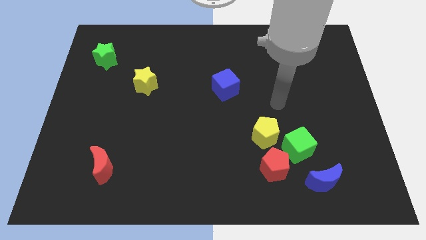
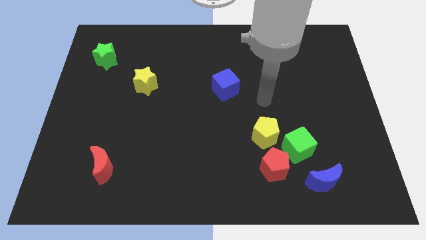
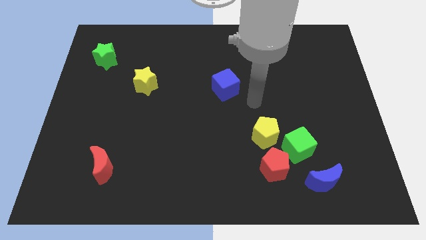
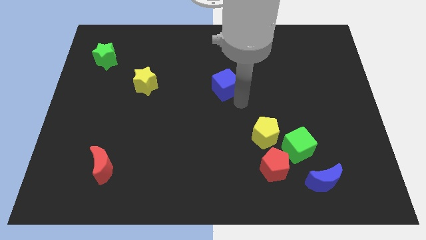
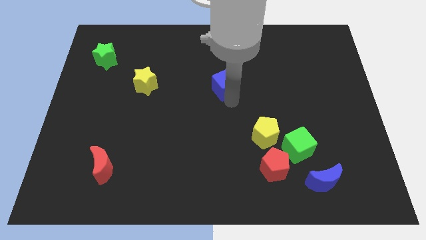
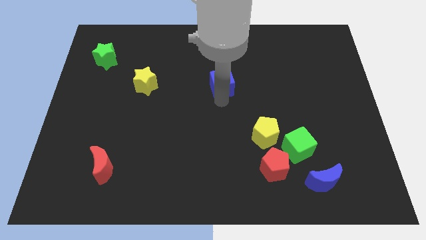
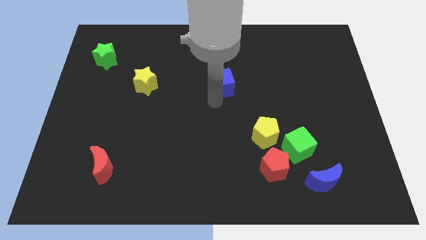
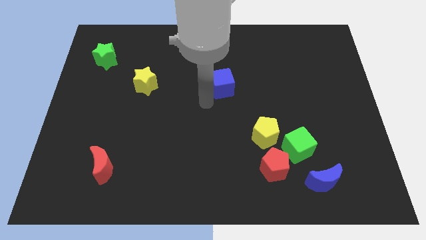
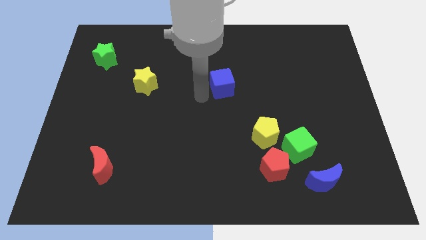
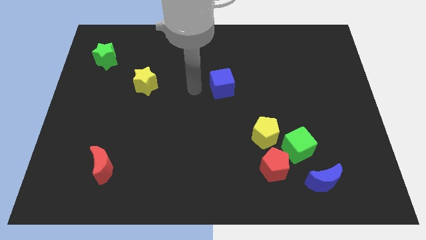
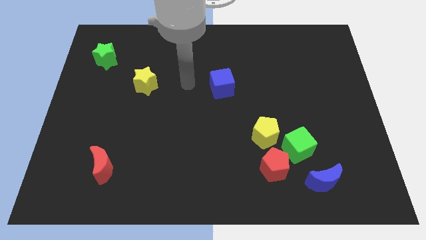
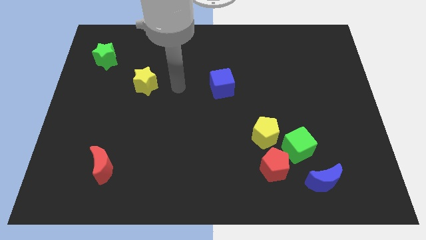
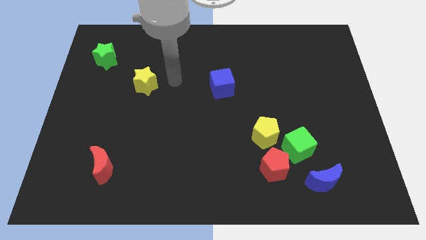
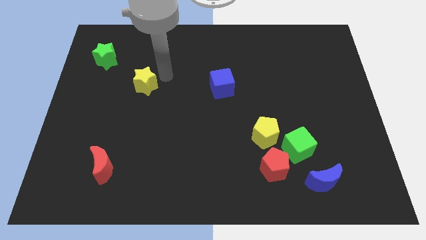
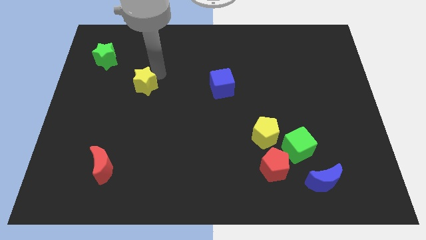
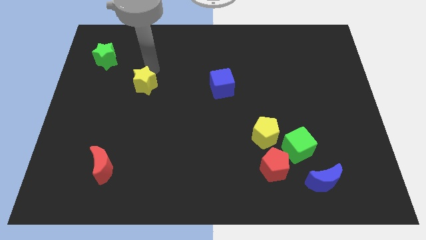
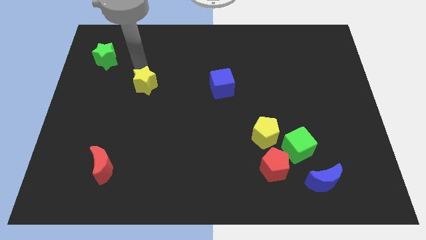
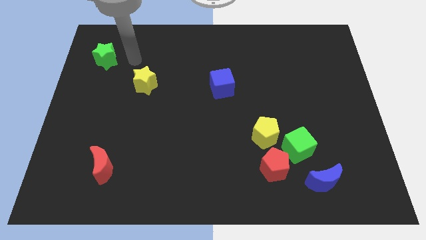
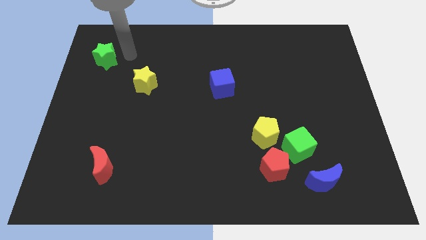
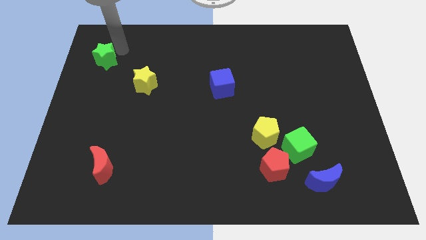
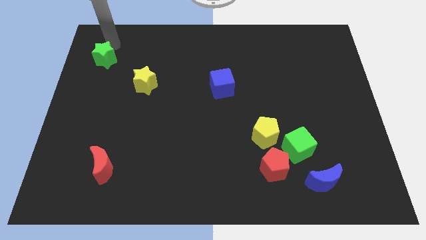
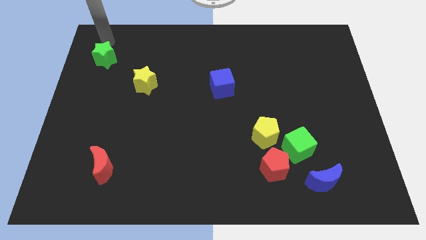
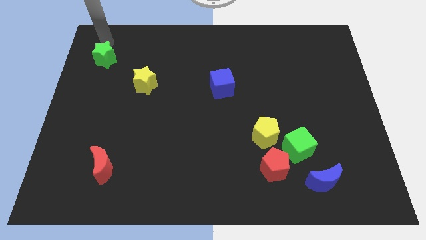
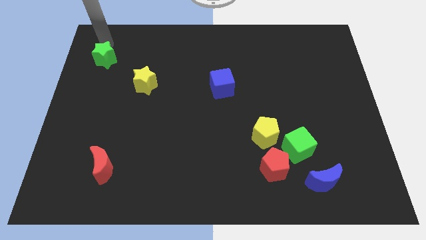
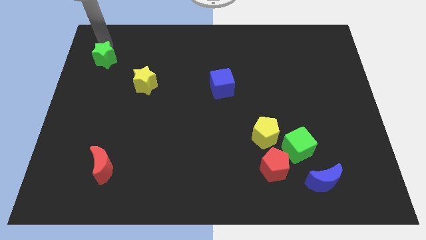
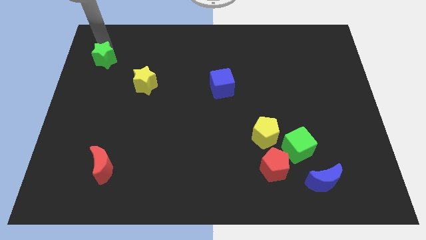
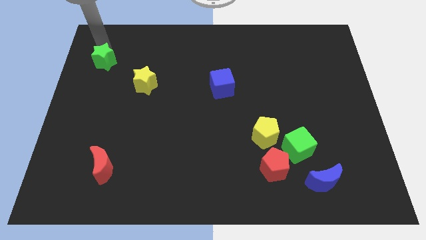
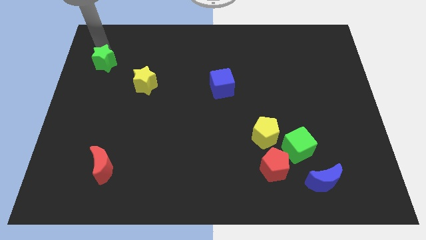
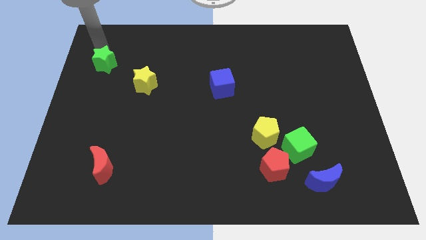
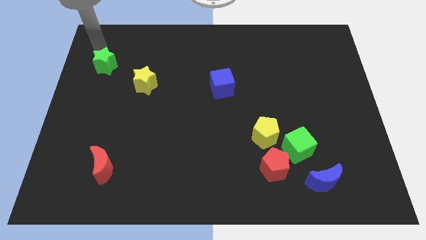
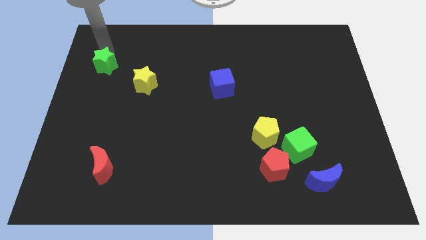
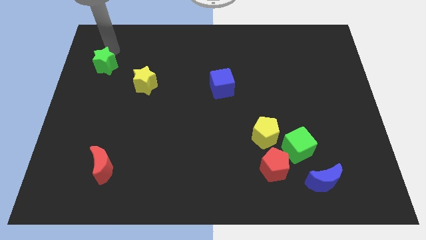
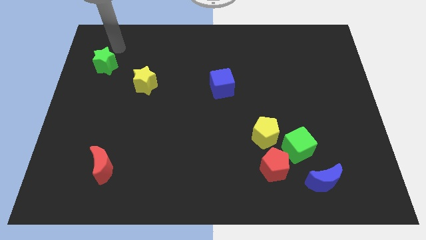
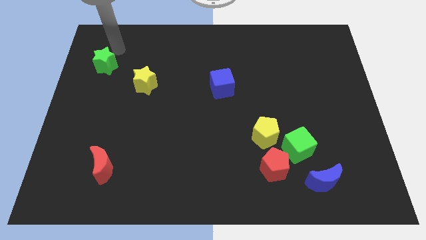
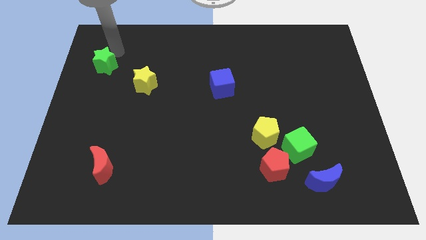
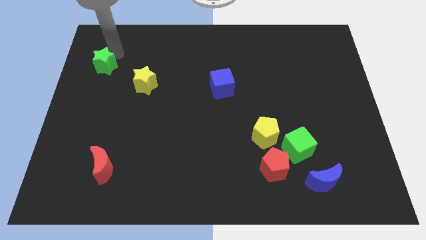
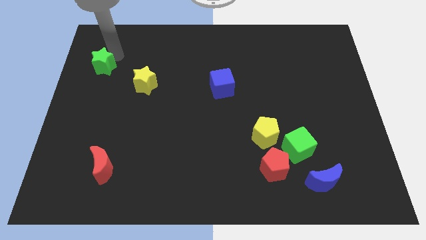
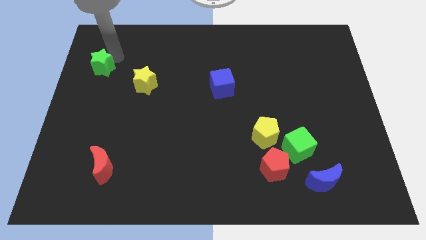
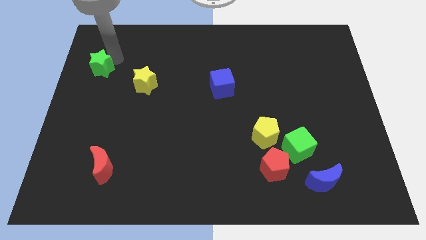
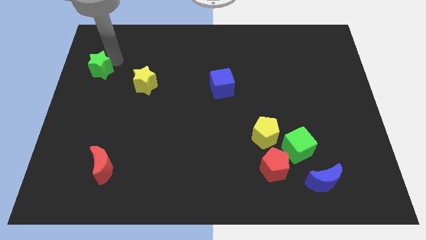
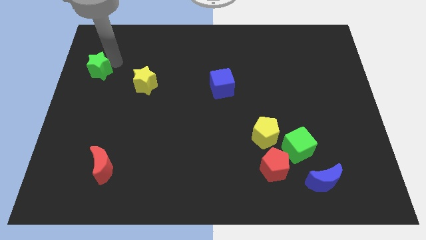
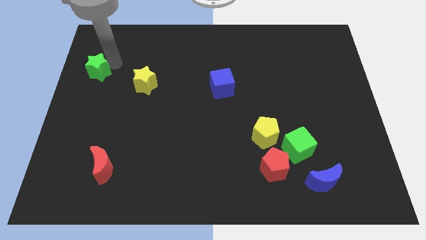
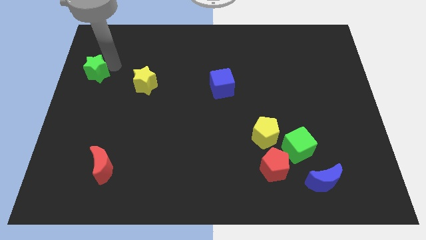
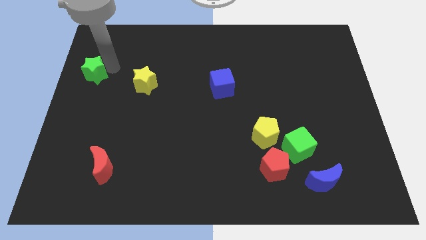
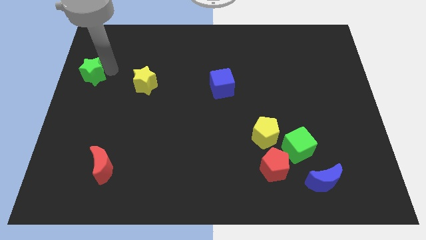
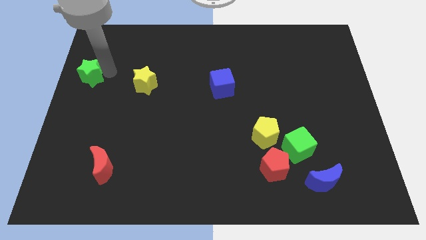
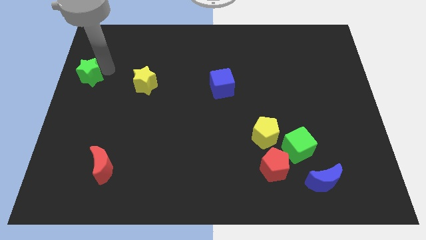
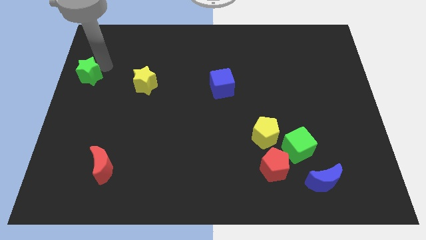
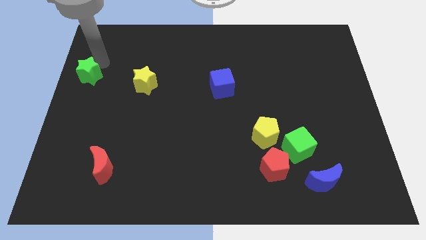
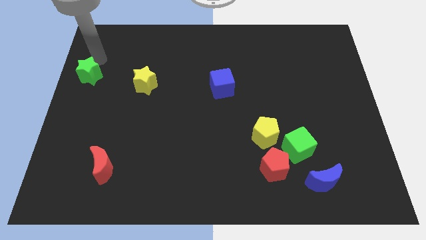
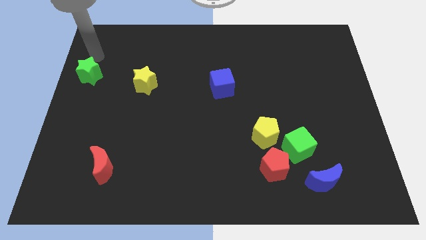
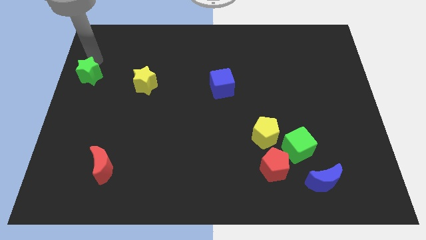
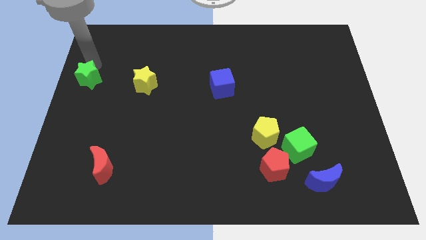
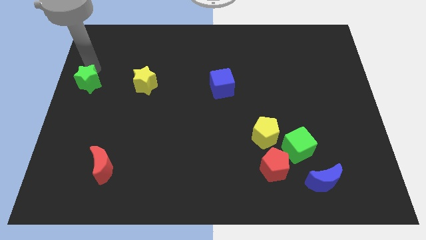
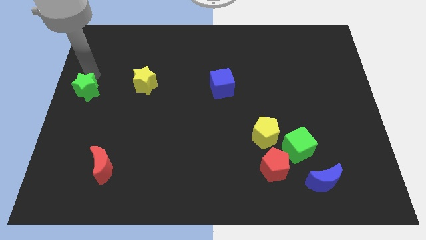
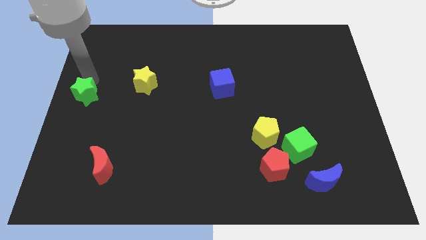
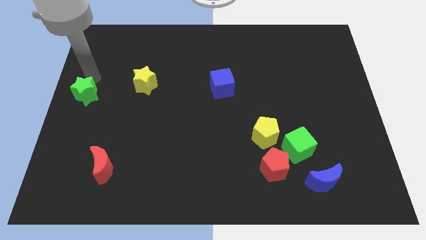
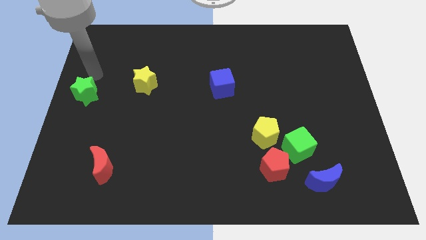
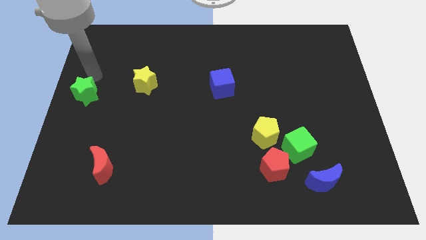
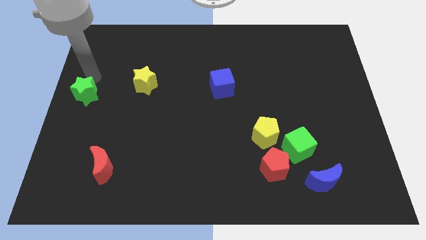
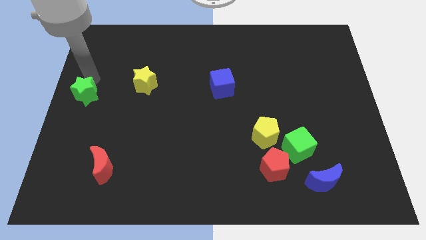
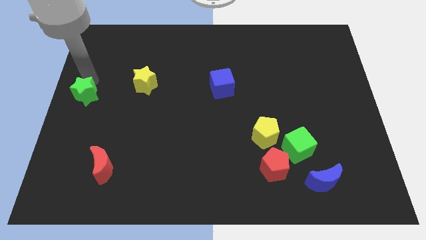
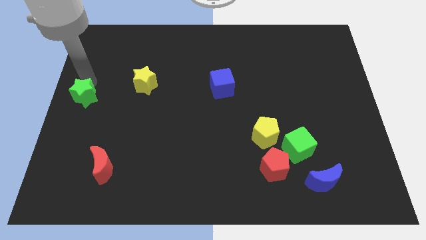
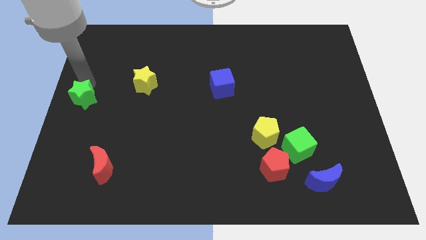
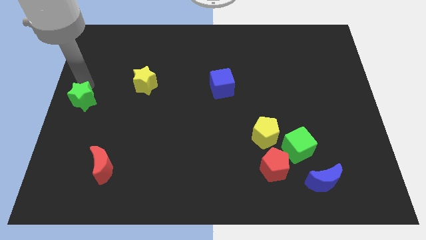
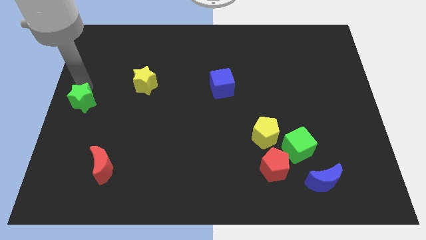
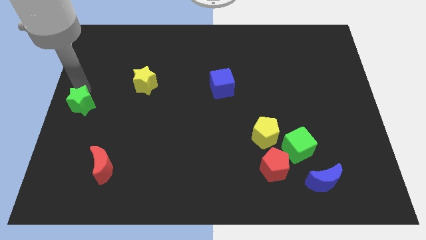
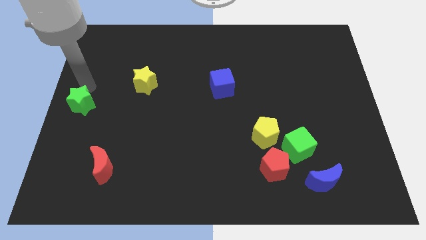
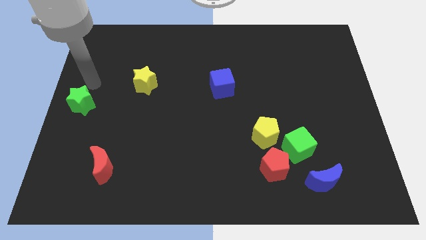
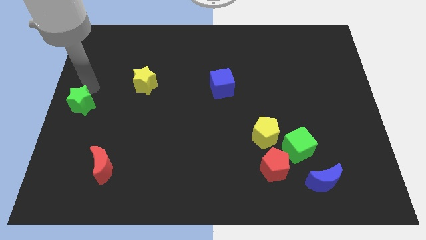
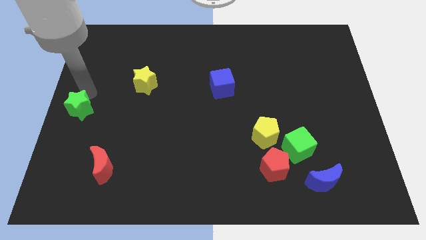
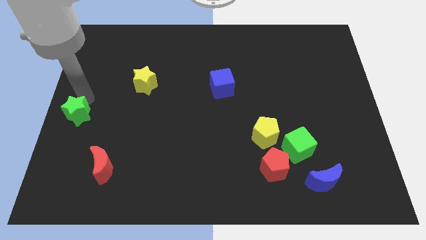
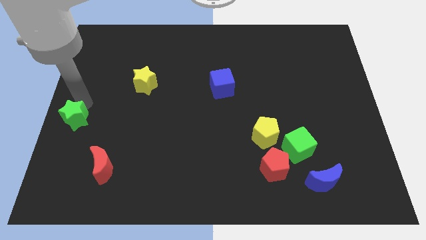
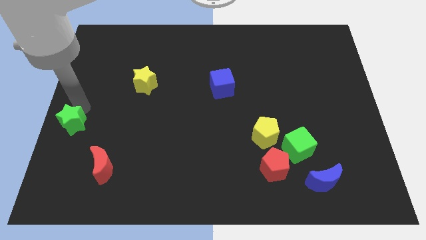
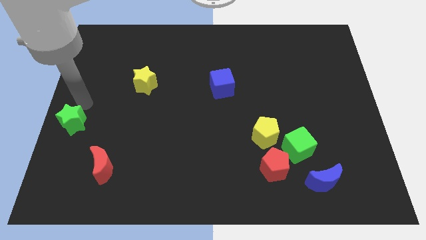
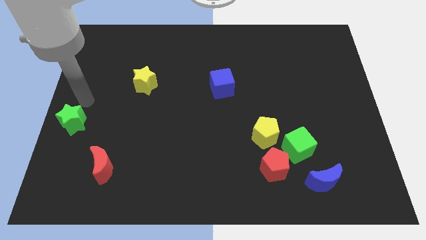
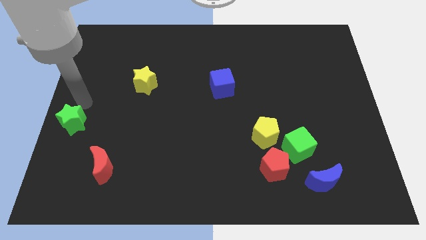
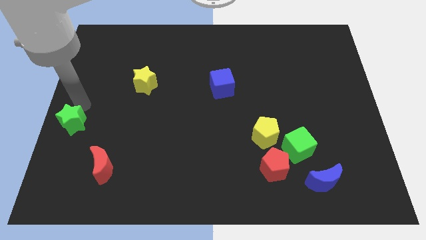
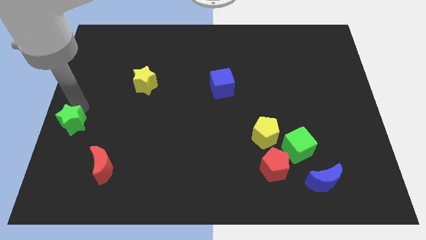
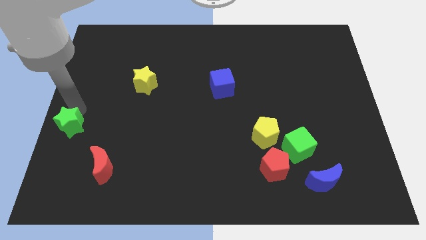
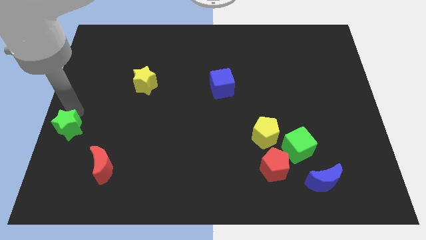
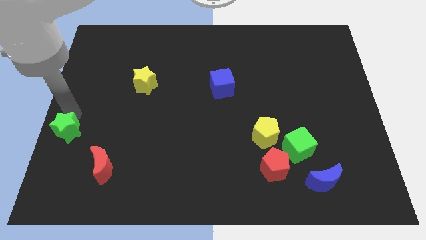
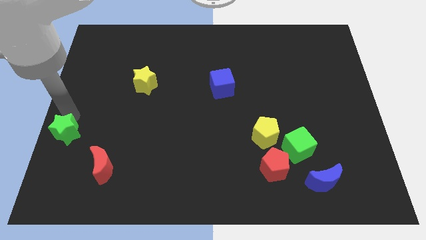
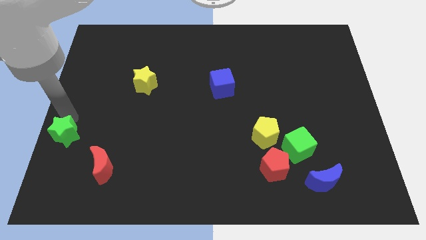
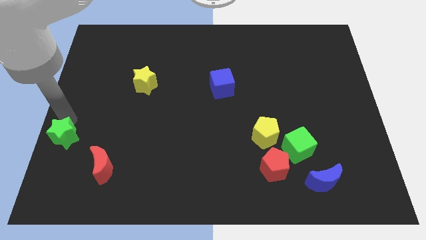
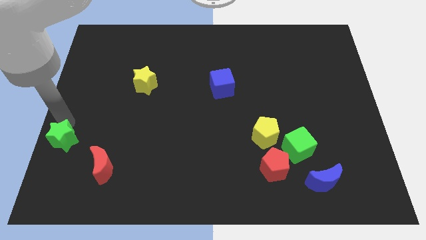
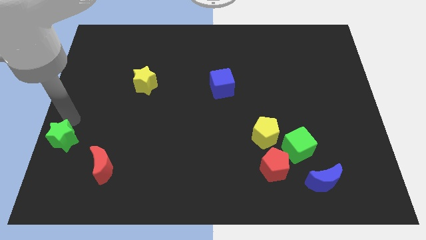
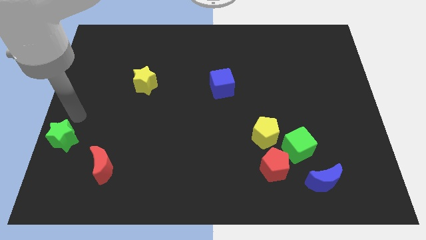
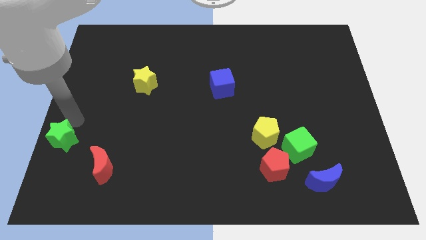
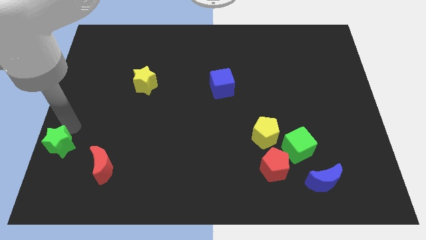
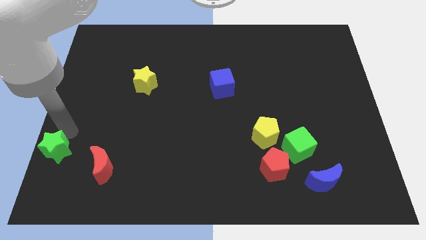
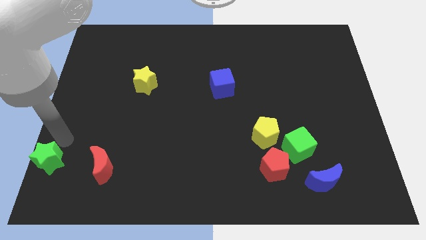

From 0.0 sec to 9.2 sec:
move the green star to the bottom left corner
